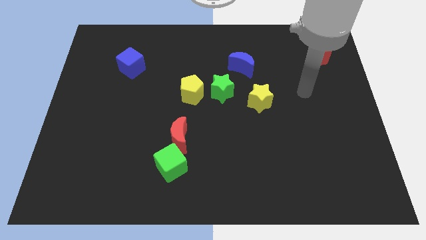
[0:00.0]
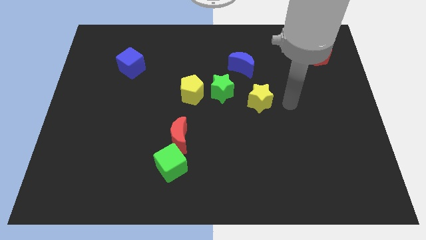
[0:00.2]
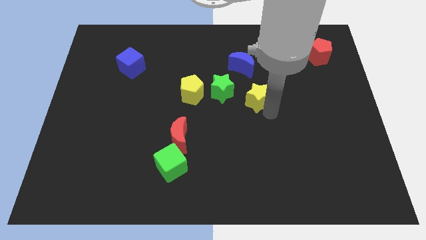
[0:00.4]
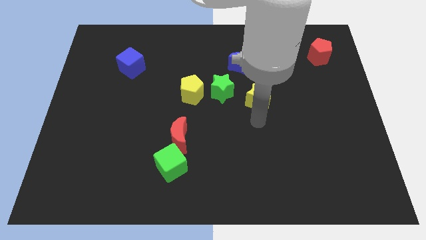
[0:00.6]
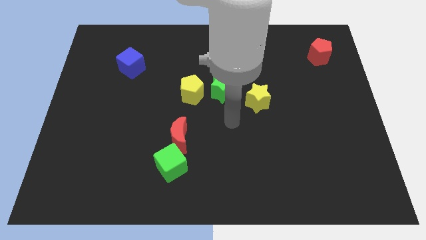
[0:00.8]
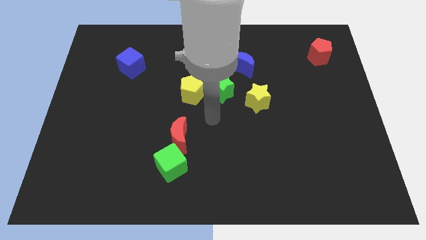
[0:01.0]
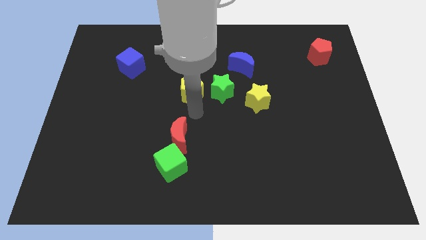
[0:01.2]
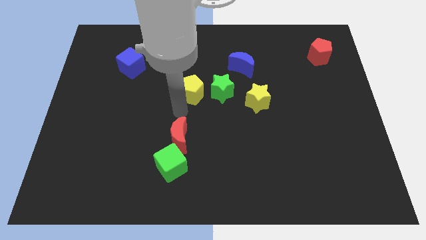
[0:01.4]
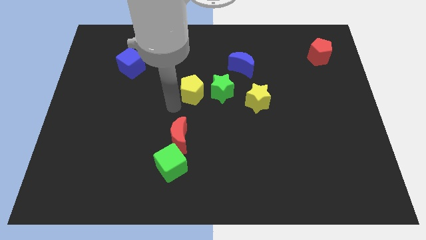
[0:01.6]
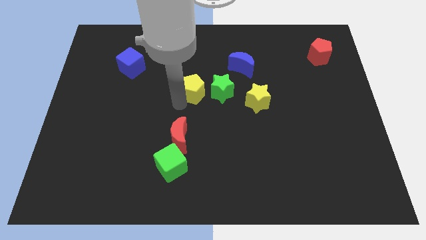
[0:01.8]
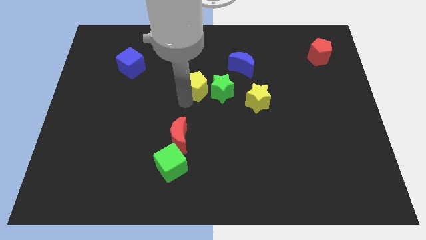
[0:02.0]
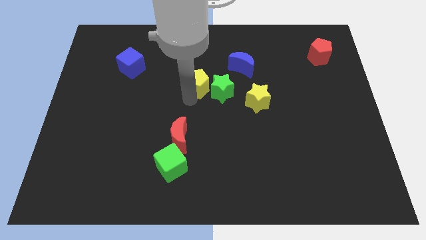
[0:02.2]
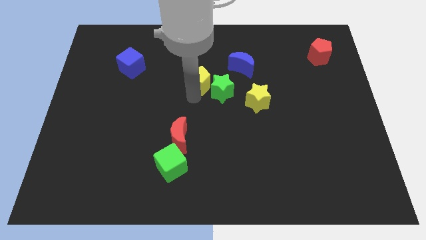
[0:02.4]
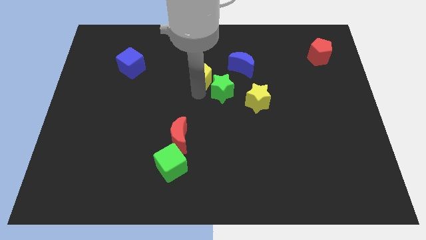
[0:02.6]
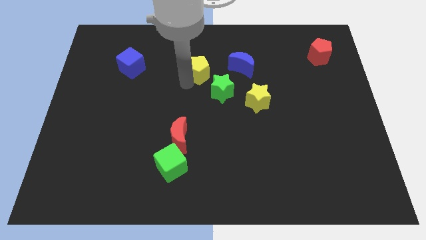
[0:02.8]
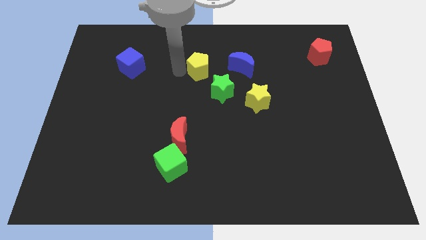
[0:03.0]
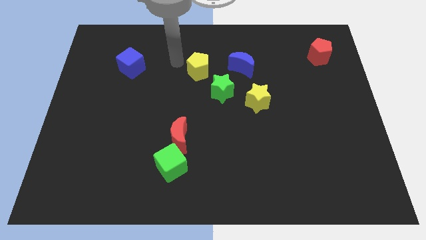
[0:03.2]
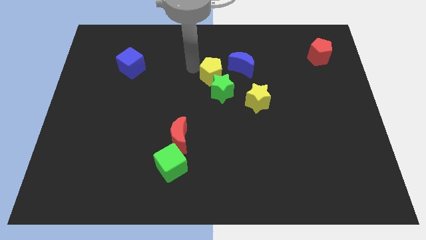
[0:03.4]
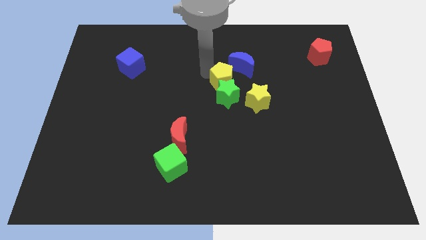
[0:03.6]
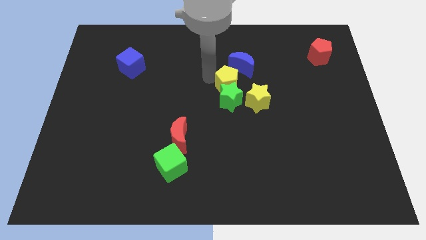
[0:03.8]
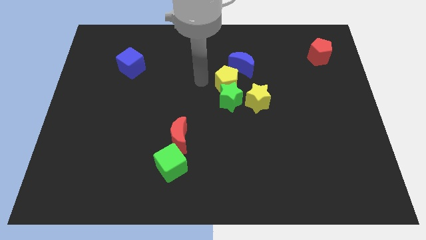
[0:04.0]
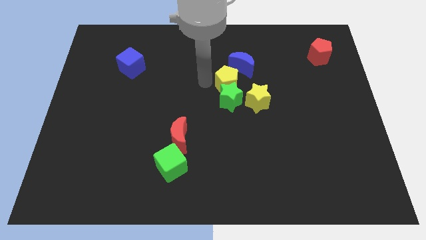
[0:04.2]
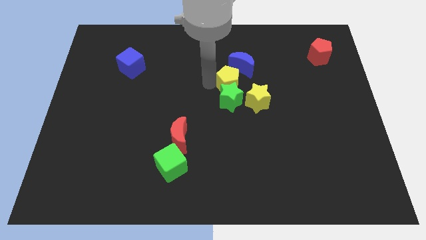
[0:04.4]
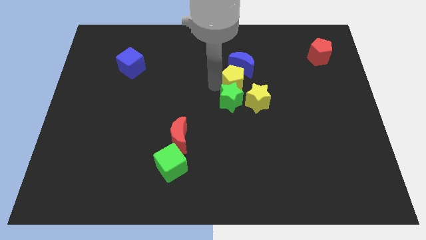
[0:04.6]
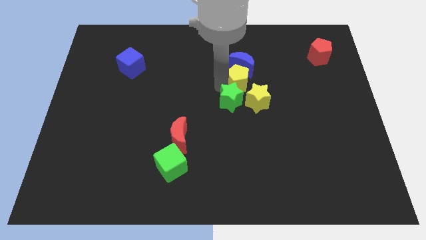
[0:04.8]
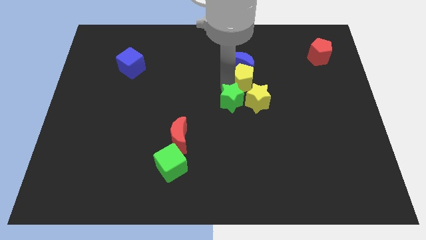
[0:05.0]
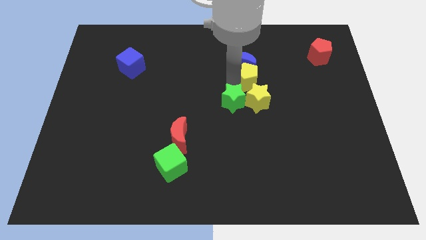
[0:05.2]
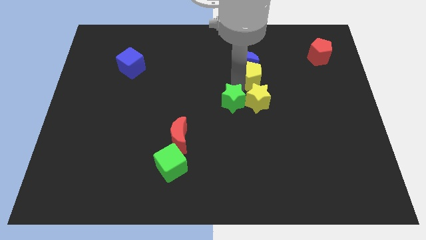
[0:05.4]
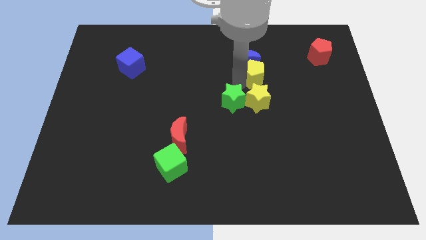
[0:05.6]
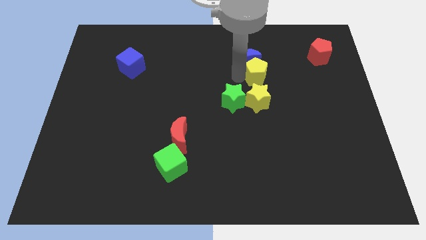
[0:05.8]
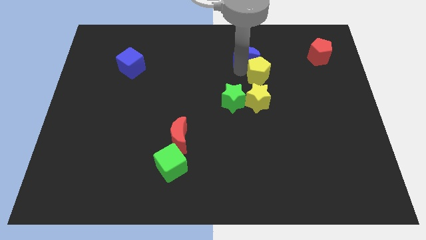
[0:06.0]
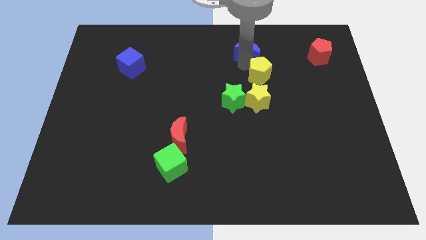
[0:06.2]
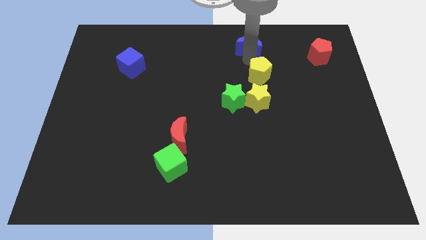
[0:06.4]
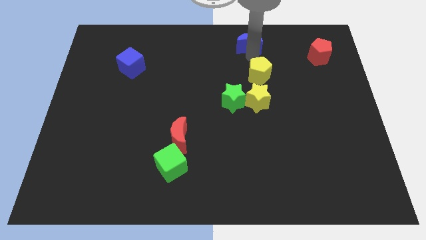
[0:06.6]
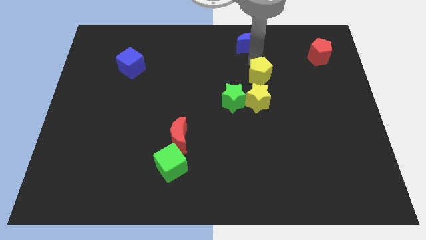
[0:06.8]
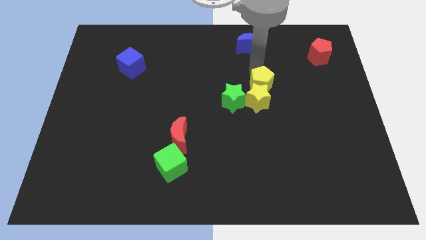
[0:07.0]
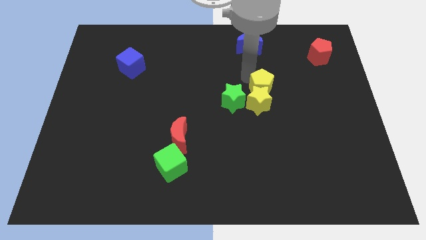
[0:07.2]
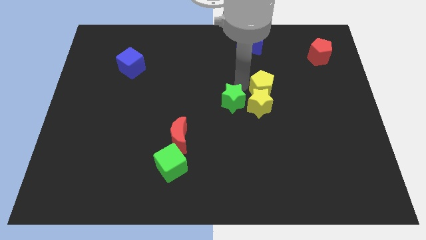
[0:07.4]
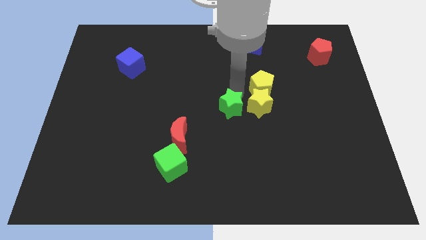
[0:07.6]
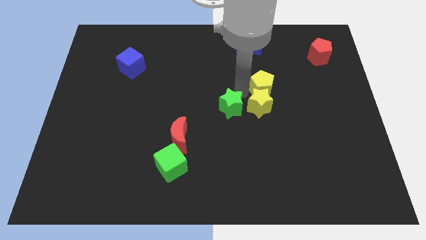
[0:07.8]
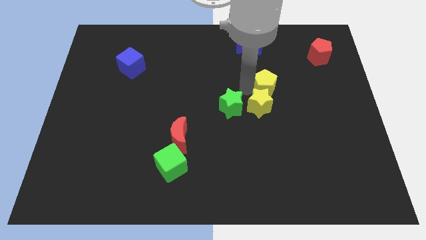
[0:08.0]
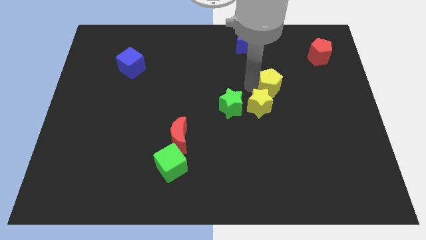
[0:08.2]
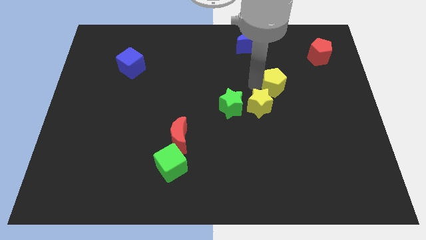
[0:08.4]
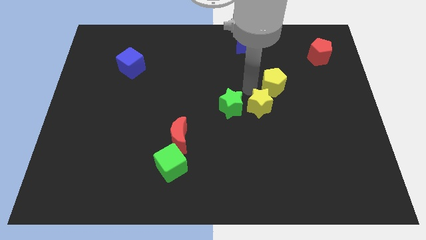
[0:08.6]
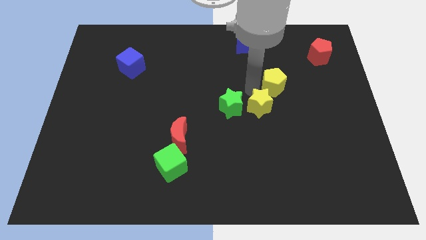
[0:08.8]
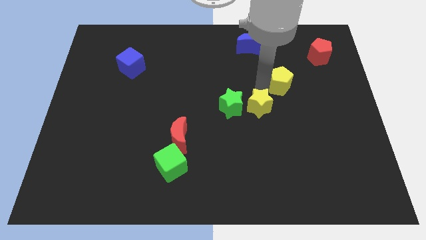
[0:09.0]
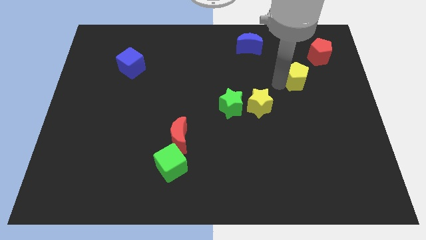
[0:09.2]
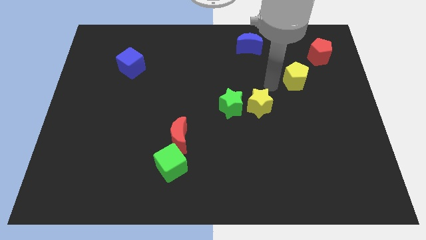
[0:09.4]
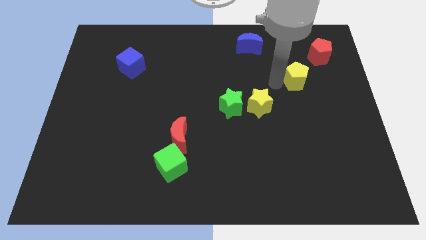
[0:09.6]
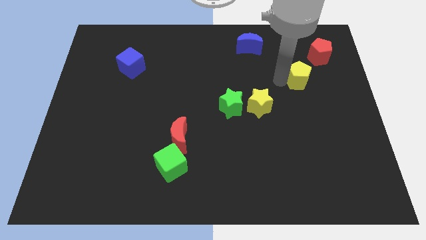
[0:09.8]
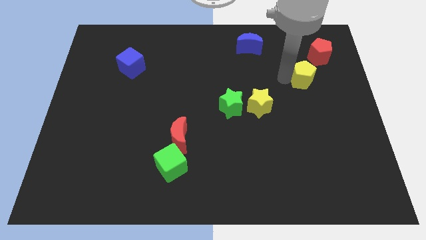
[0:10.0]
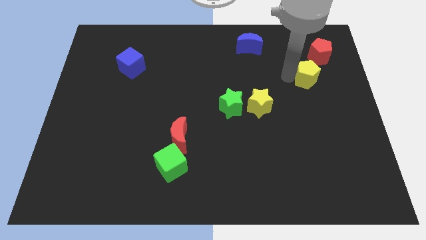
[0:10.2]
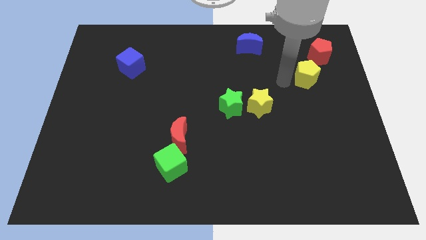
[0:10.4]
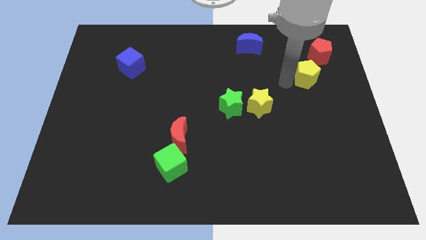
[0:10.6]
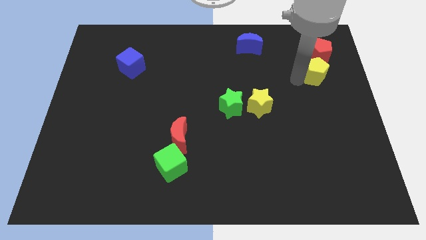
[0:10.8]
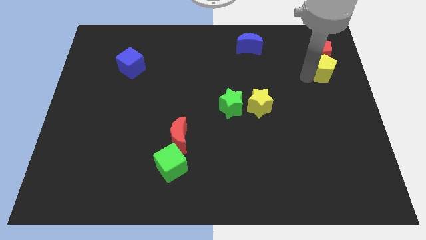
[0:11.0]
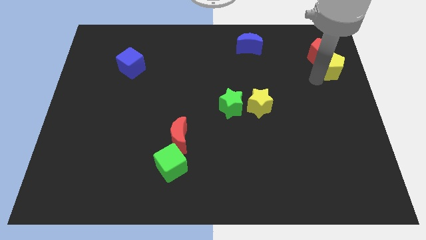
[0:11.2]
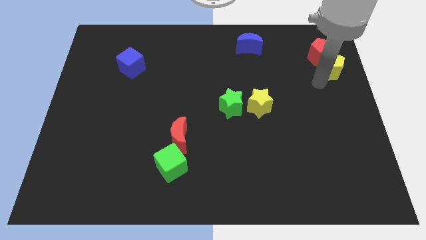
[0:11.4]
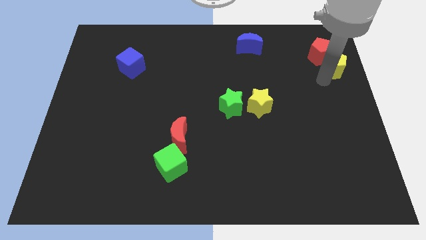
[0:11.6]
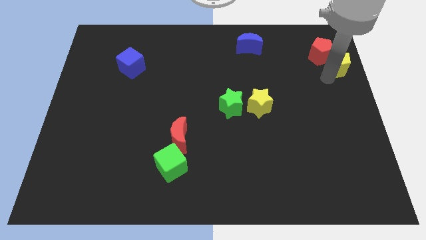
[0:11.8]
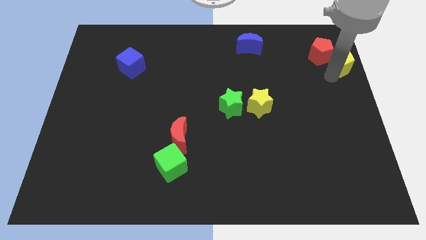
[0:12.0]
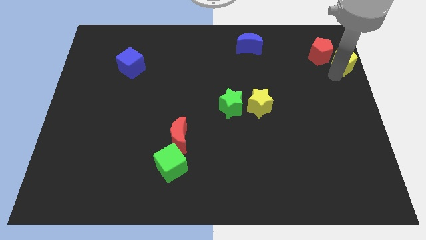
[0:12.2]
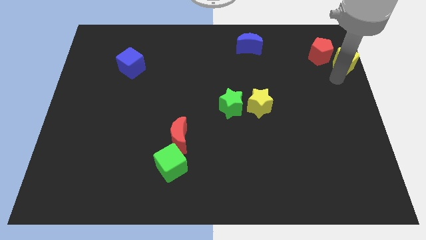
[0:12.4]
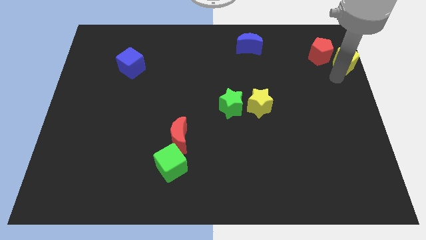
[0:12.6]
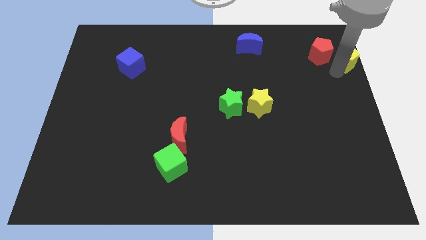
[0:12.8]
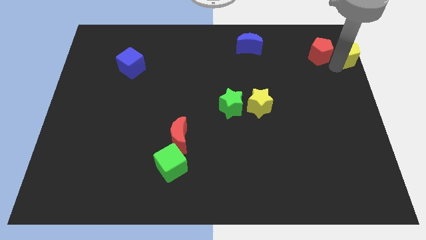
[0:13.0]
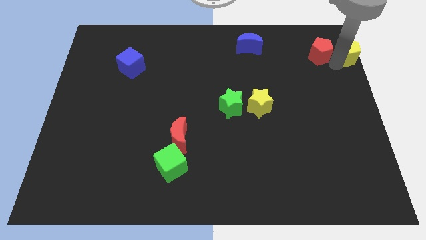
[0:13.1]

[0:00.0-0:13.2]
move the yellow pentagon to the top right of the board
